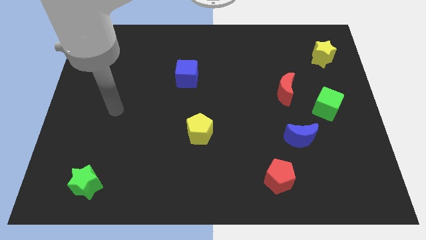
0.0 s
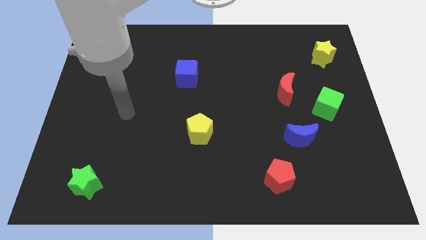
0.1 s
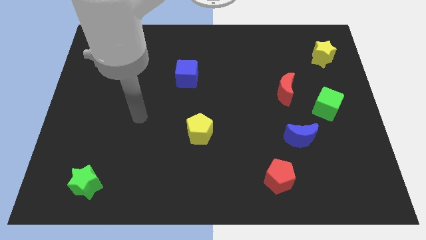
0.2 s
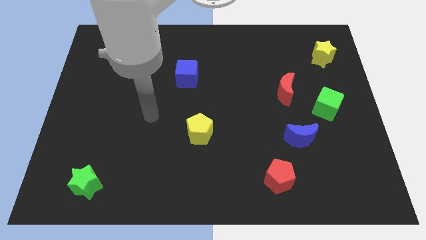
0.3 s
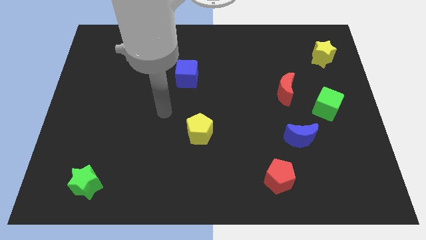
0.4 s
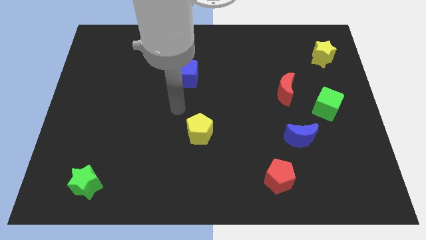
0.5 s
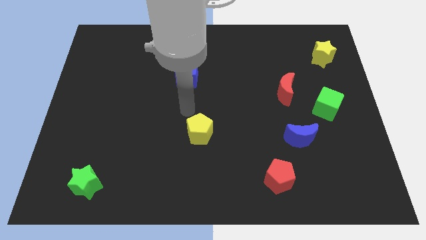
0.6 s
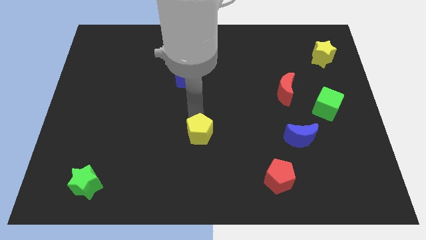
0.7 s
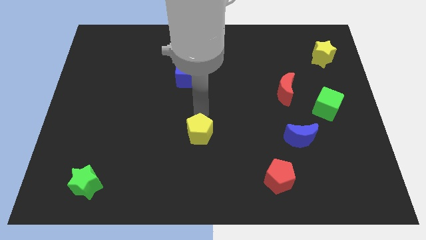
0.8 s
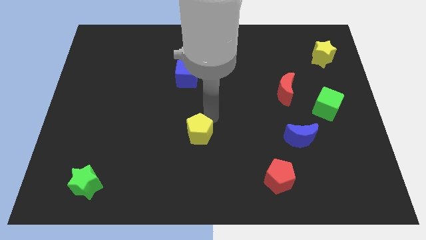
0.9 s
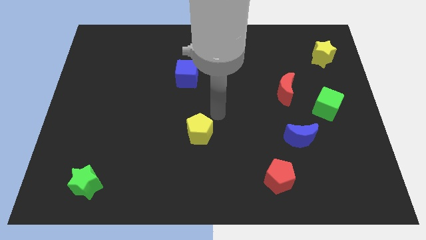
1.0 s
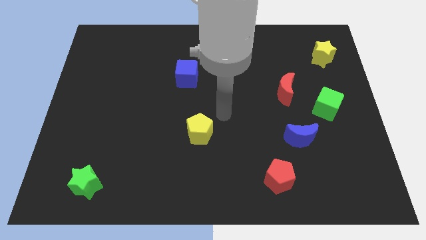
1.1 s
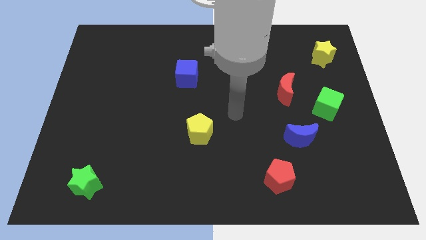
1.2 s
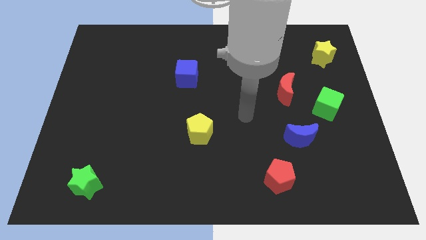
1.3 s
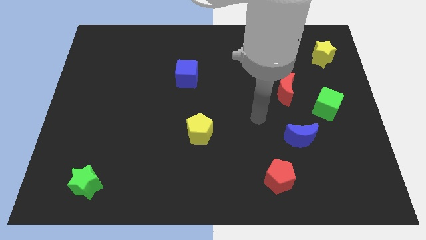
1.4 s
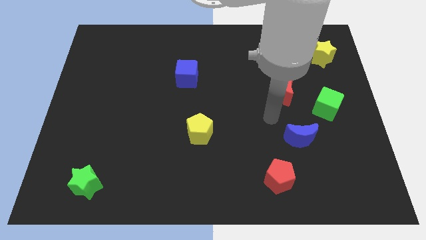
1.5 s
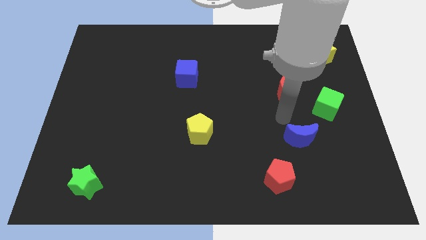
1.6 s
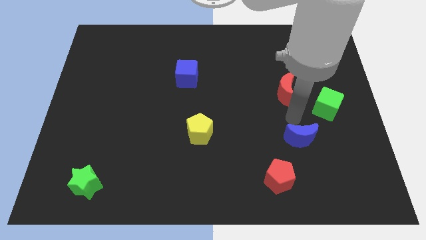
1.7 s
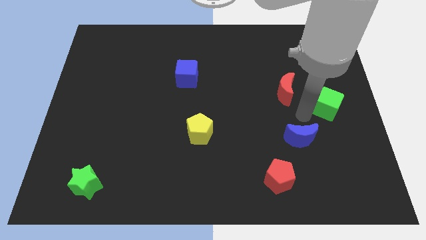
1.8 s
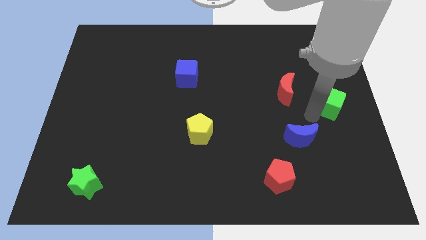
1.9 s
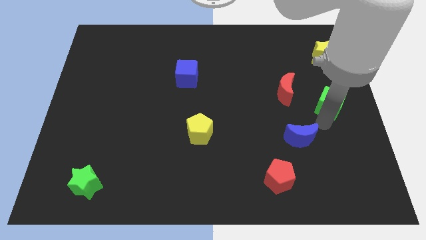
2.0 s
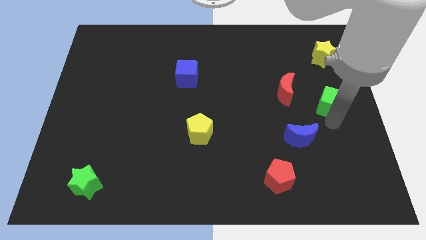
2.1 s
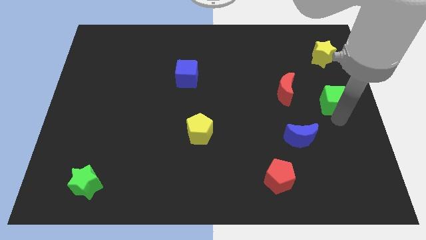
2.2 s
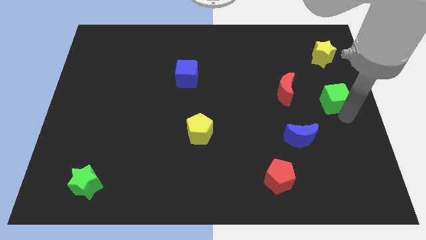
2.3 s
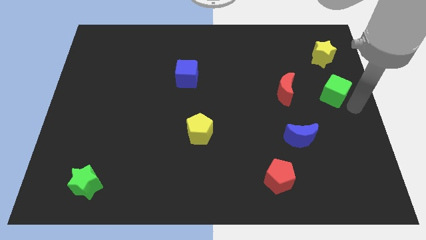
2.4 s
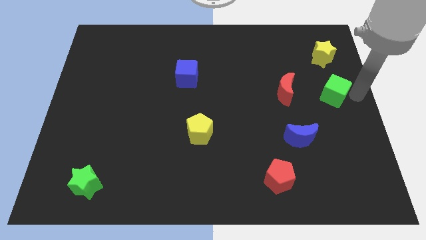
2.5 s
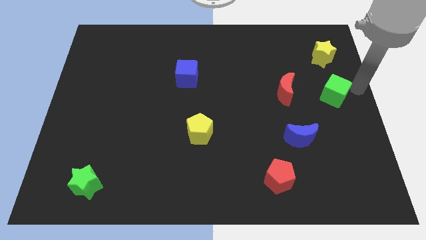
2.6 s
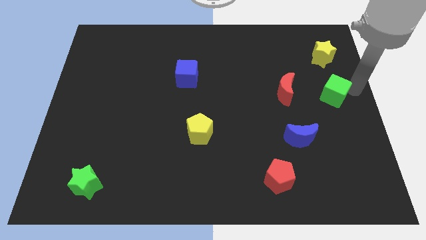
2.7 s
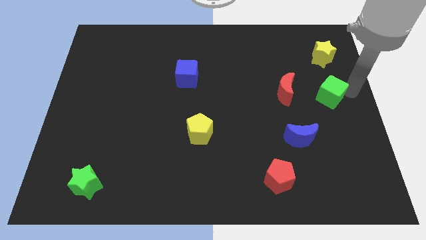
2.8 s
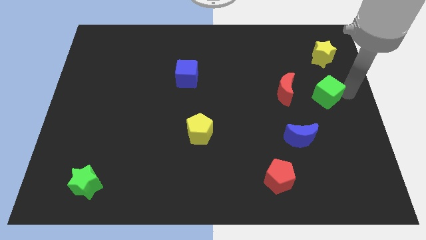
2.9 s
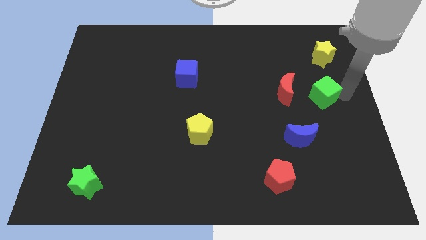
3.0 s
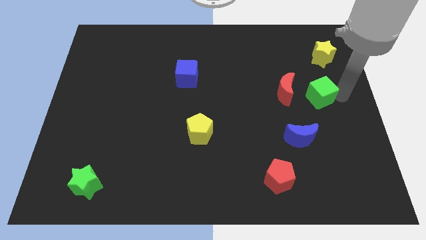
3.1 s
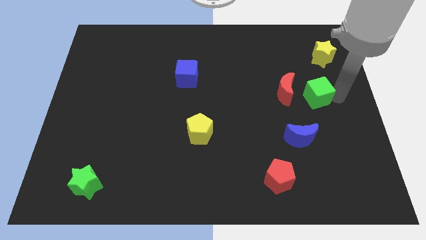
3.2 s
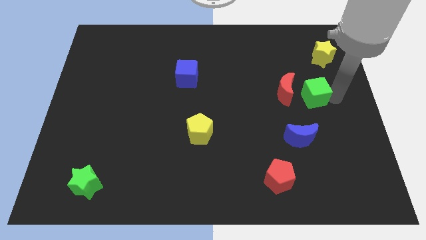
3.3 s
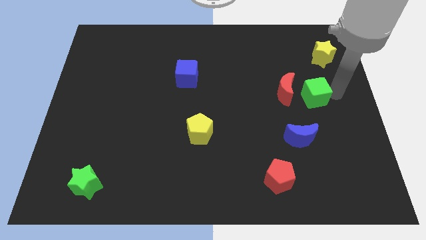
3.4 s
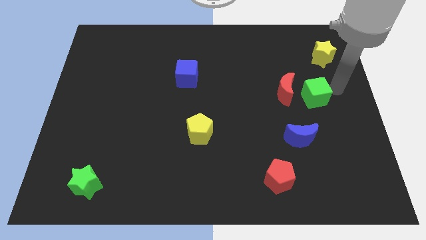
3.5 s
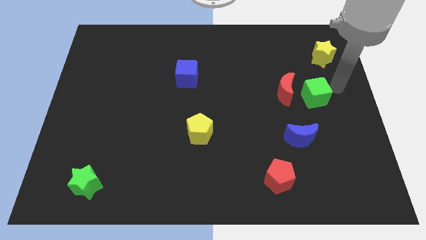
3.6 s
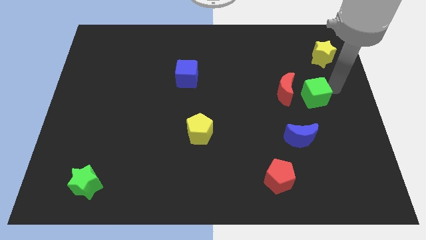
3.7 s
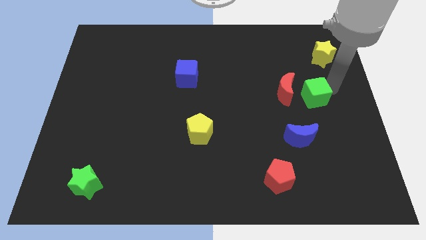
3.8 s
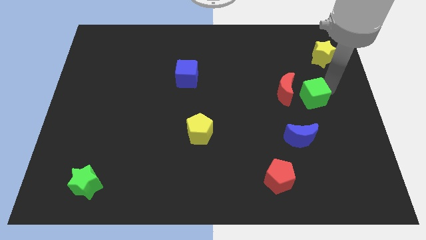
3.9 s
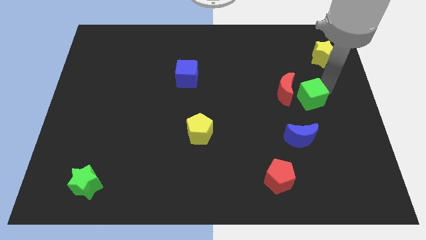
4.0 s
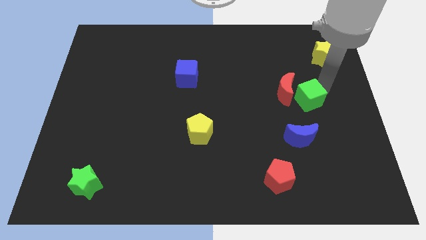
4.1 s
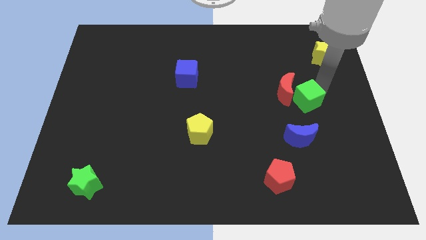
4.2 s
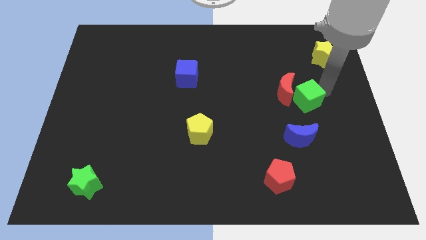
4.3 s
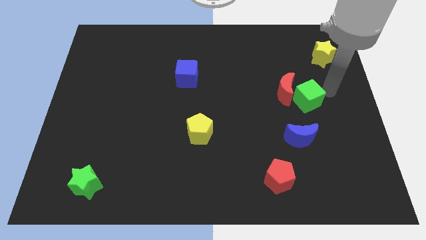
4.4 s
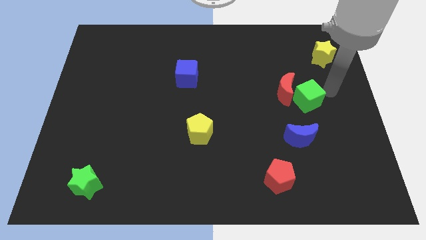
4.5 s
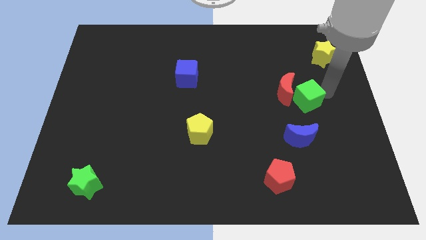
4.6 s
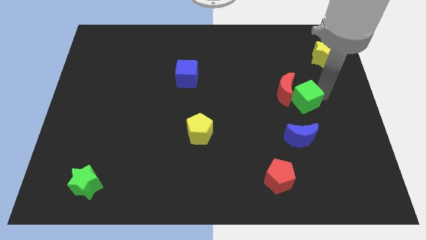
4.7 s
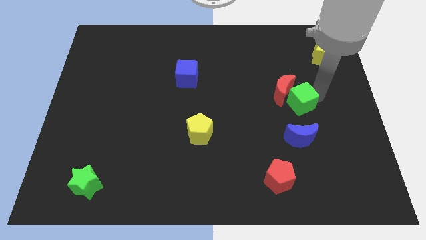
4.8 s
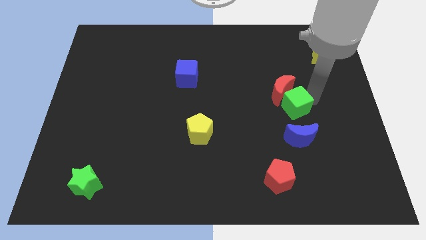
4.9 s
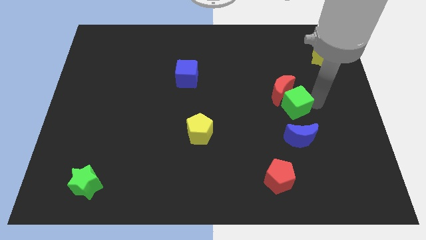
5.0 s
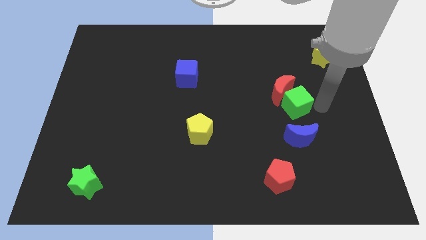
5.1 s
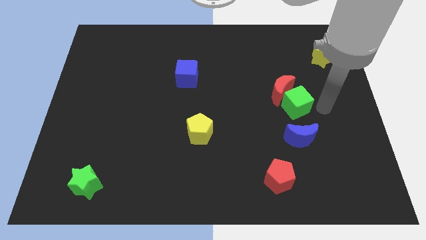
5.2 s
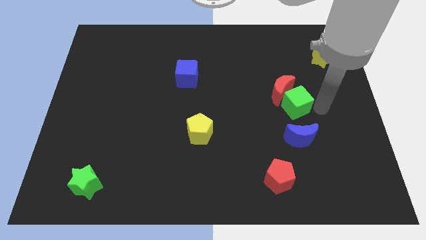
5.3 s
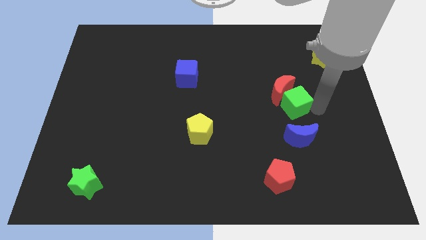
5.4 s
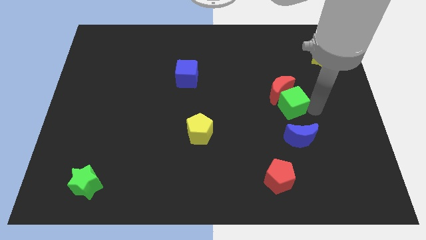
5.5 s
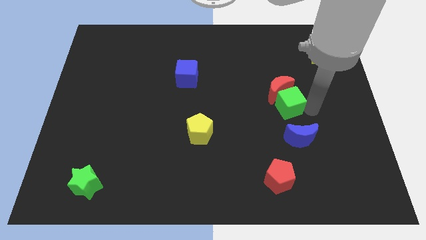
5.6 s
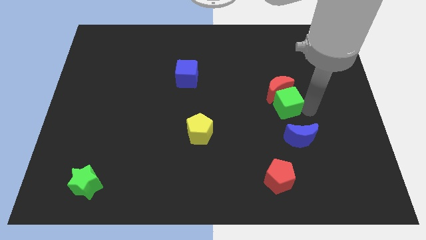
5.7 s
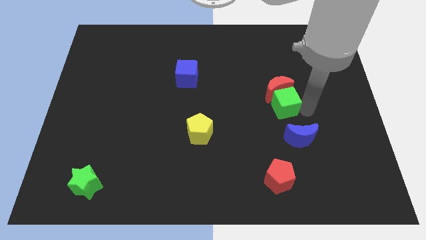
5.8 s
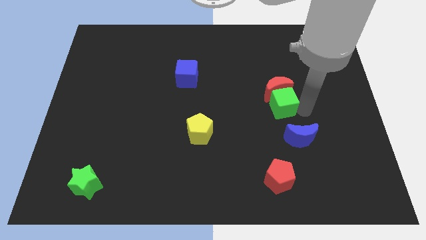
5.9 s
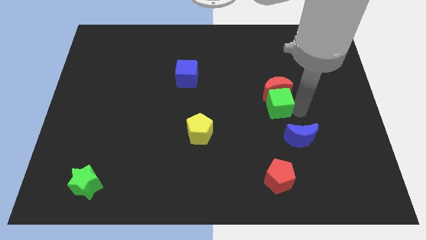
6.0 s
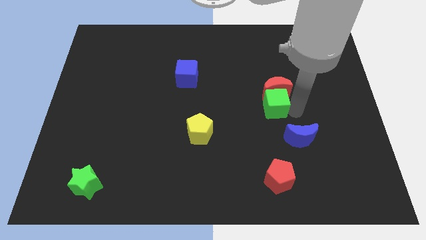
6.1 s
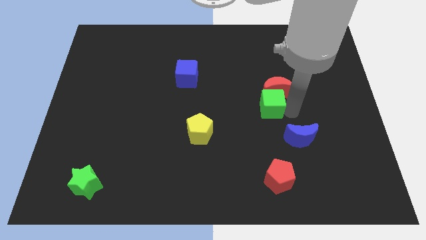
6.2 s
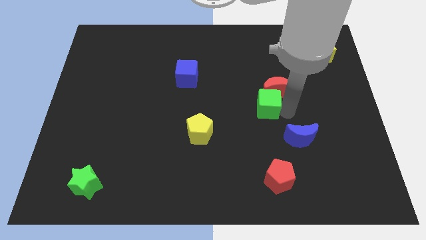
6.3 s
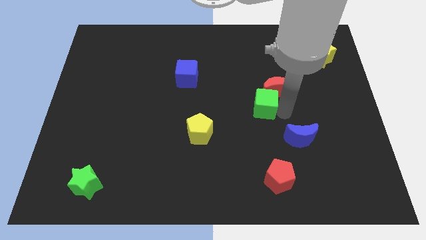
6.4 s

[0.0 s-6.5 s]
push the green cube to the middle

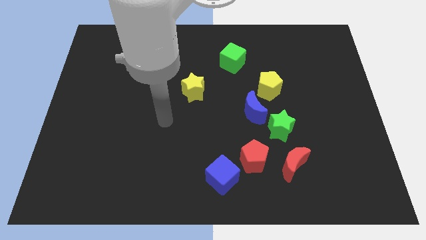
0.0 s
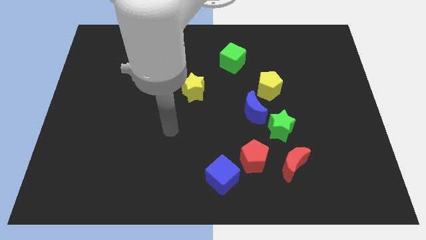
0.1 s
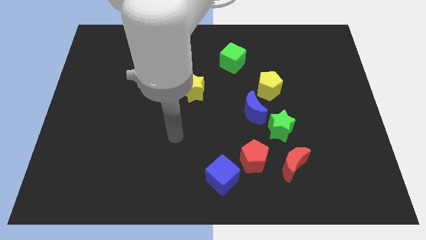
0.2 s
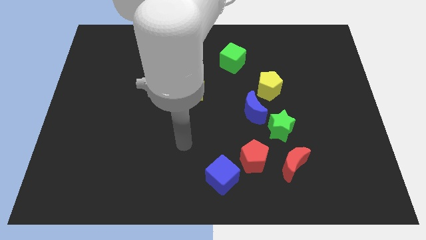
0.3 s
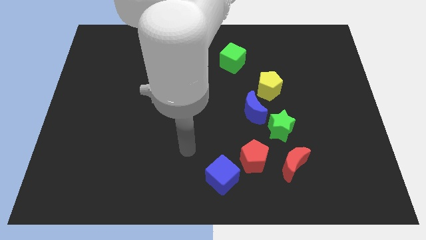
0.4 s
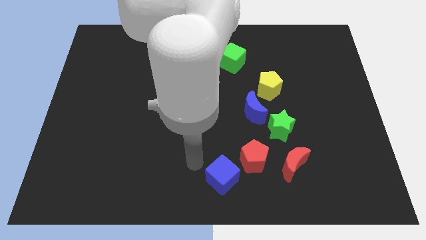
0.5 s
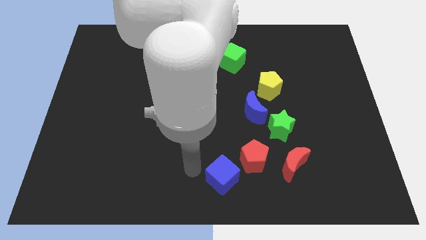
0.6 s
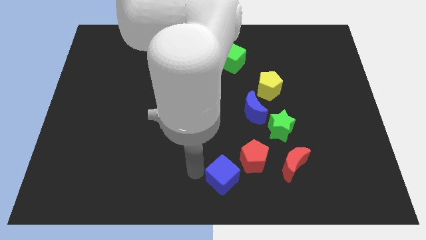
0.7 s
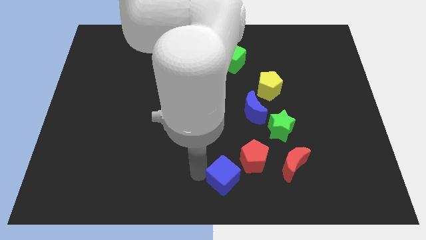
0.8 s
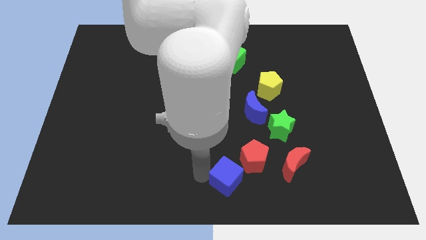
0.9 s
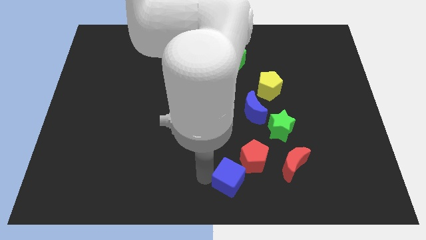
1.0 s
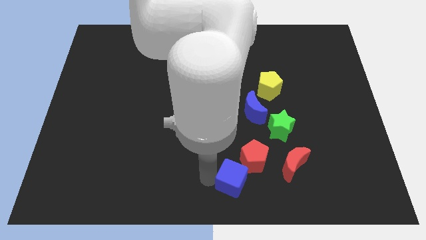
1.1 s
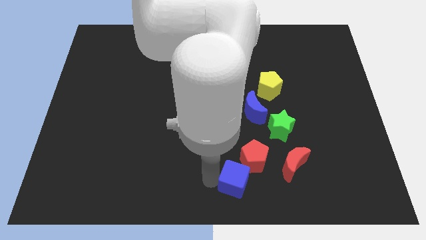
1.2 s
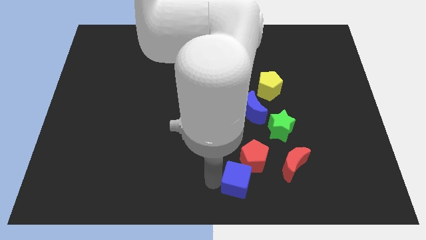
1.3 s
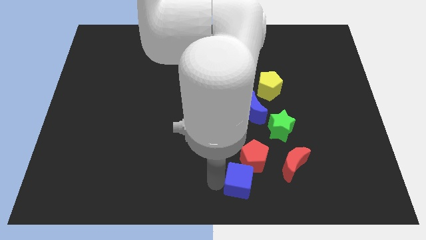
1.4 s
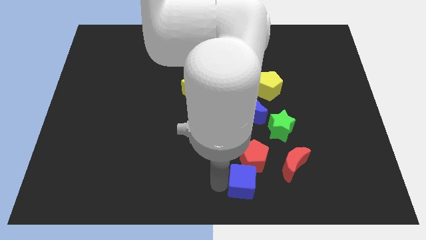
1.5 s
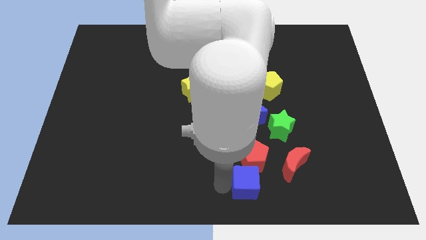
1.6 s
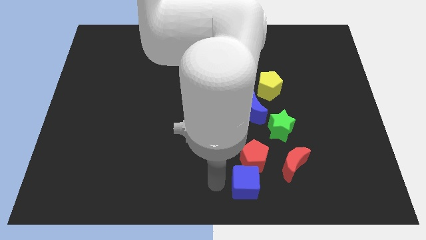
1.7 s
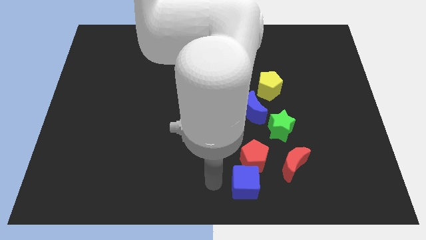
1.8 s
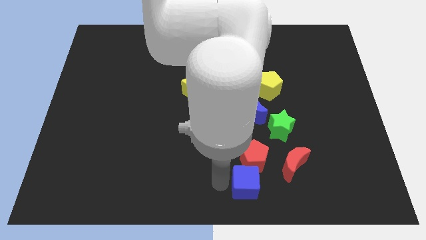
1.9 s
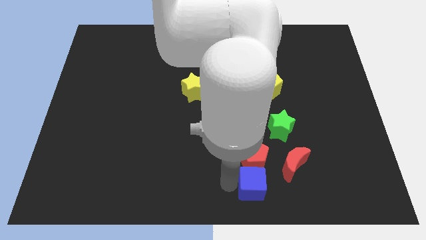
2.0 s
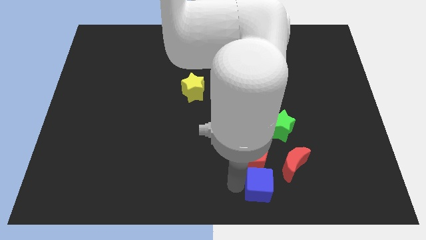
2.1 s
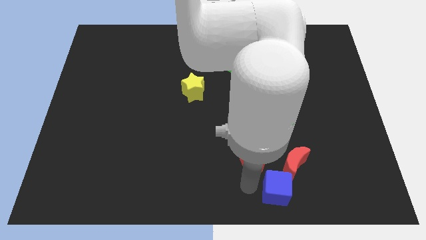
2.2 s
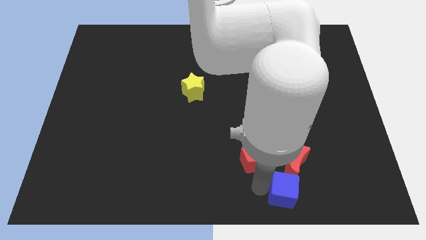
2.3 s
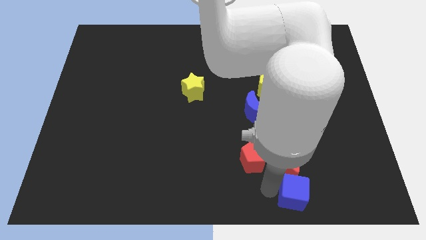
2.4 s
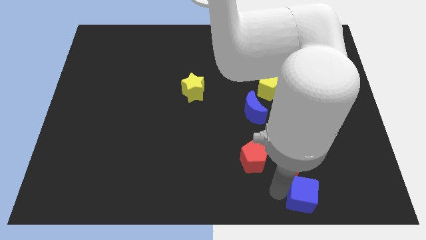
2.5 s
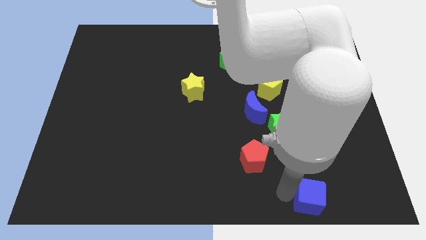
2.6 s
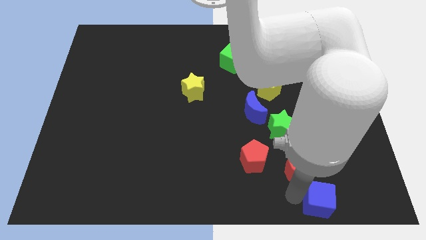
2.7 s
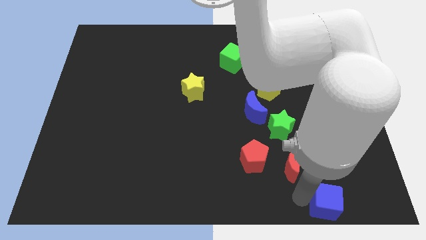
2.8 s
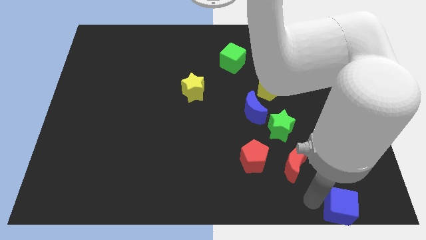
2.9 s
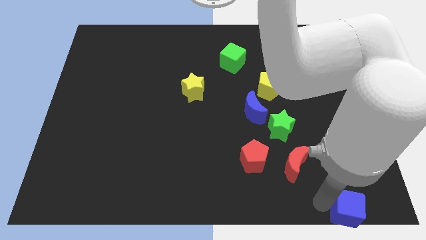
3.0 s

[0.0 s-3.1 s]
slide the blue cube to the bottom right corner
